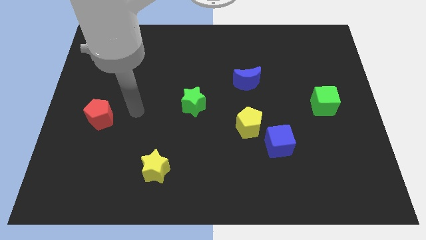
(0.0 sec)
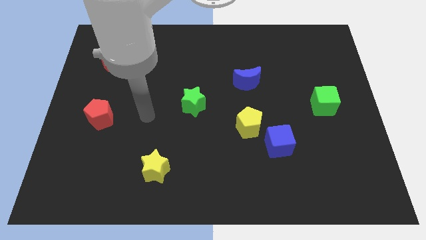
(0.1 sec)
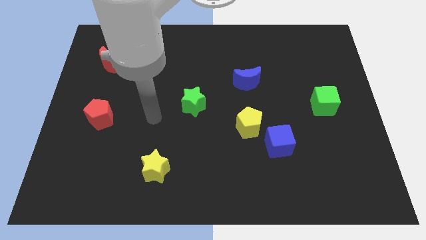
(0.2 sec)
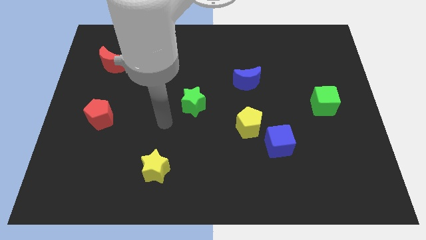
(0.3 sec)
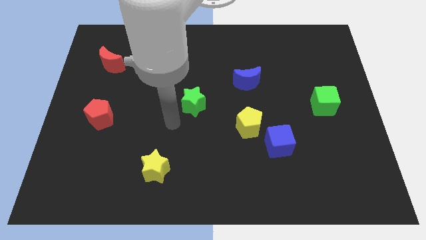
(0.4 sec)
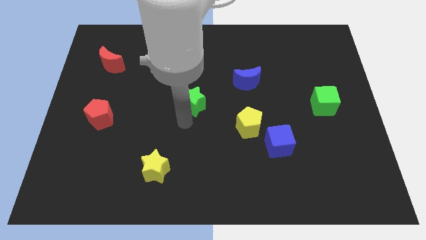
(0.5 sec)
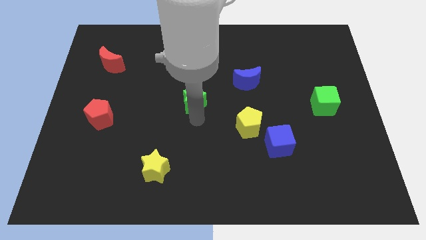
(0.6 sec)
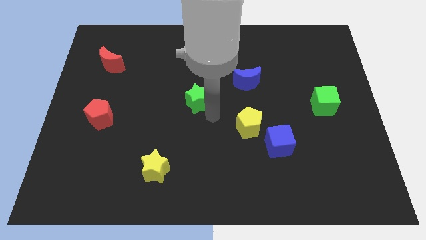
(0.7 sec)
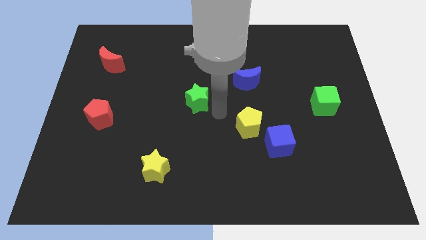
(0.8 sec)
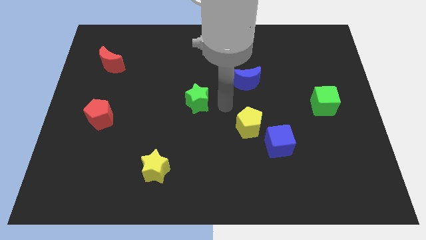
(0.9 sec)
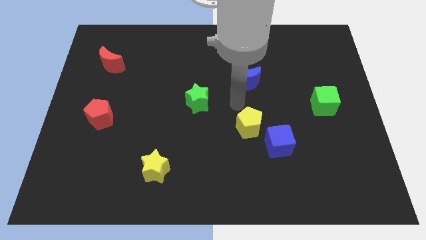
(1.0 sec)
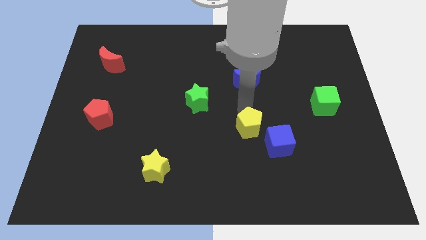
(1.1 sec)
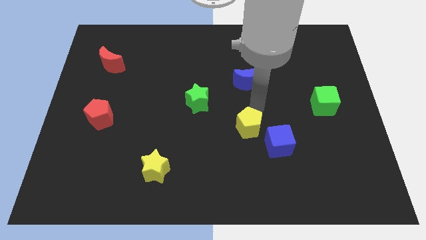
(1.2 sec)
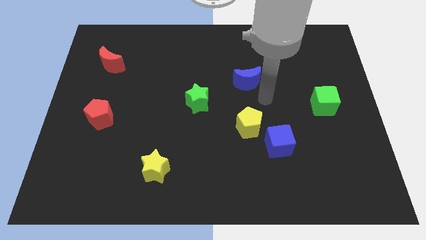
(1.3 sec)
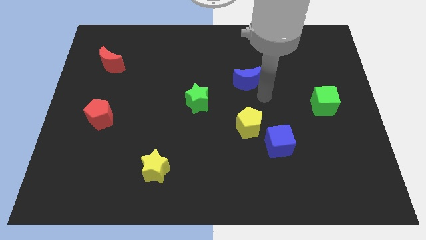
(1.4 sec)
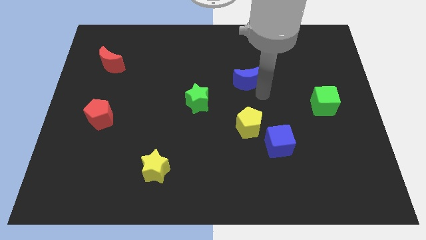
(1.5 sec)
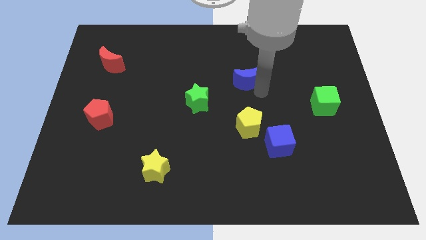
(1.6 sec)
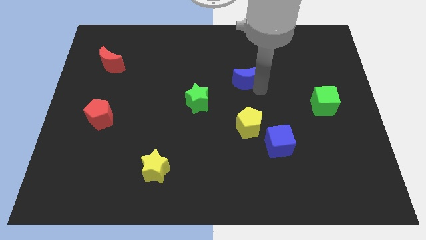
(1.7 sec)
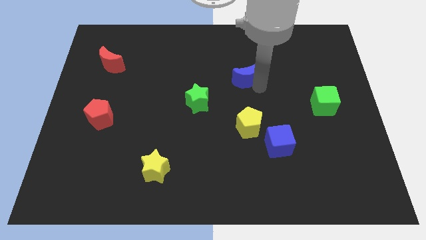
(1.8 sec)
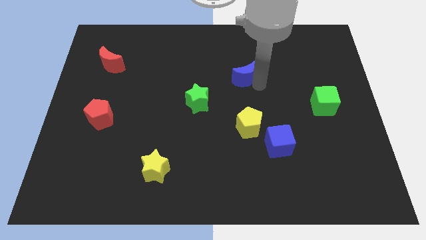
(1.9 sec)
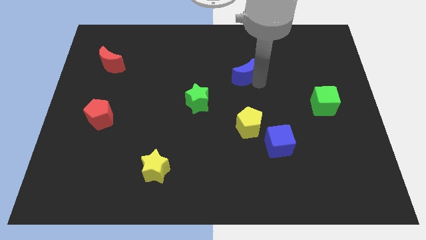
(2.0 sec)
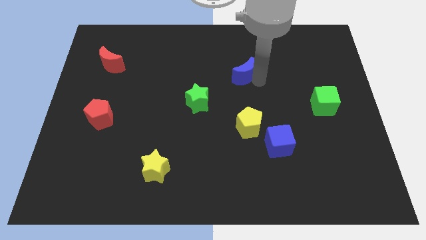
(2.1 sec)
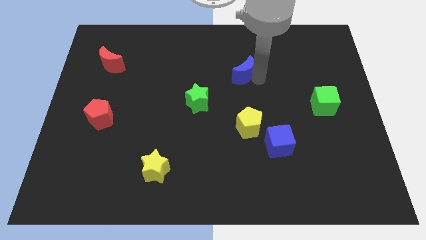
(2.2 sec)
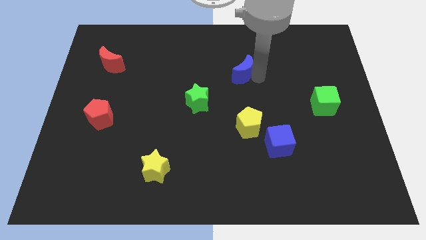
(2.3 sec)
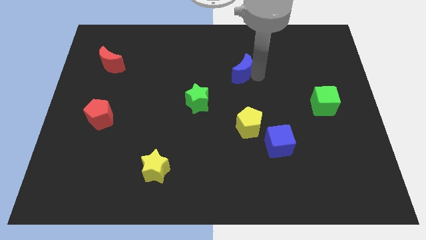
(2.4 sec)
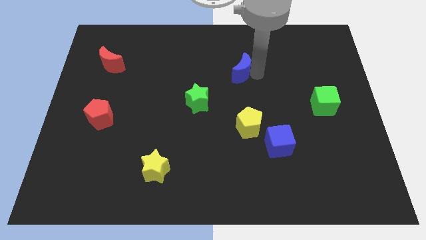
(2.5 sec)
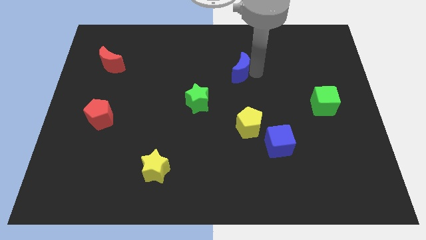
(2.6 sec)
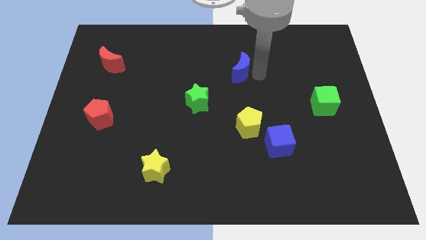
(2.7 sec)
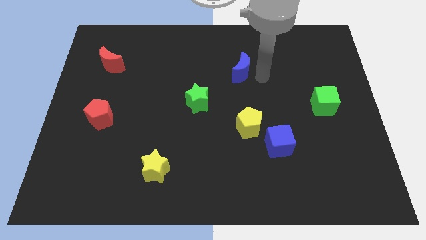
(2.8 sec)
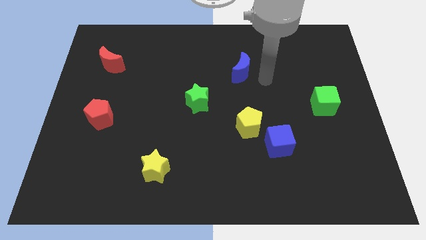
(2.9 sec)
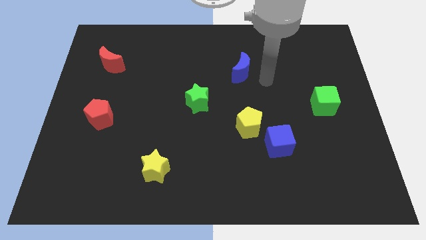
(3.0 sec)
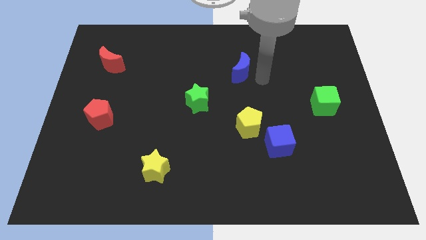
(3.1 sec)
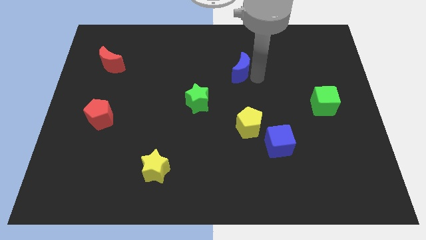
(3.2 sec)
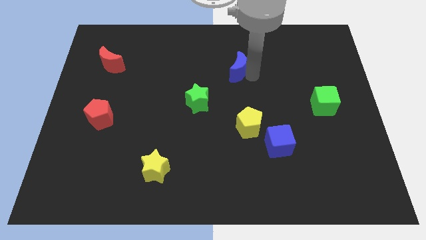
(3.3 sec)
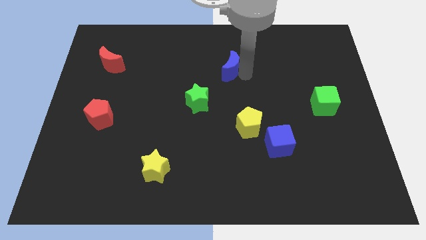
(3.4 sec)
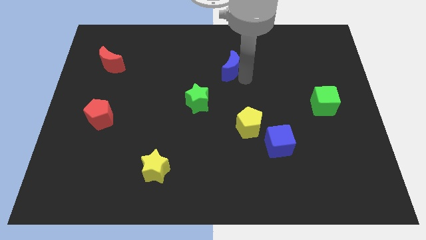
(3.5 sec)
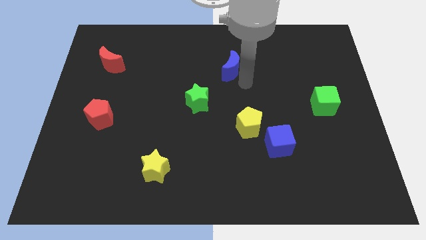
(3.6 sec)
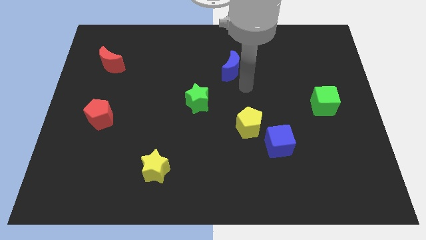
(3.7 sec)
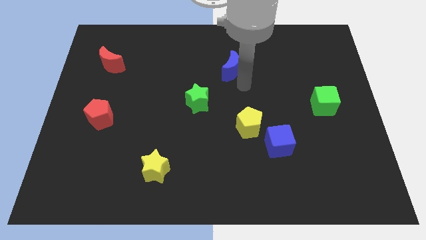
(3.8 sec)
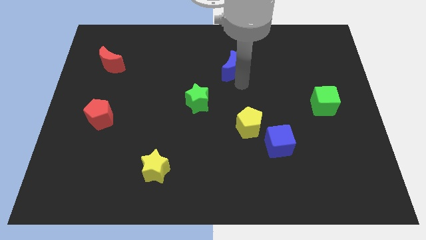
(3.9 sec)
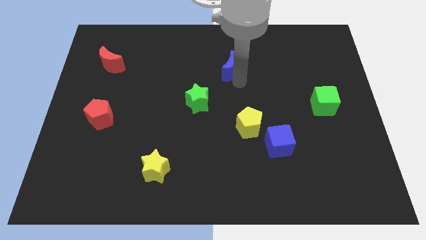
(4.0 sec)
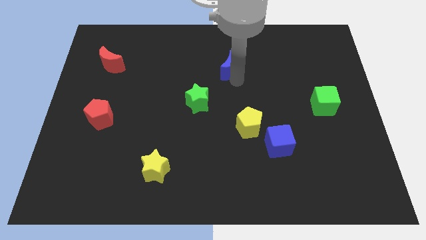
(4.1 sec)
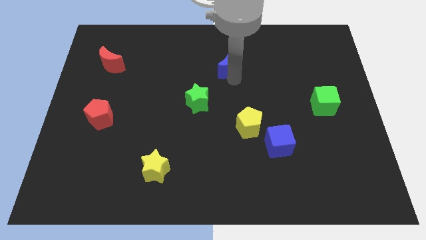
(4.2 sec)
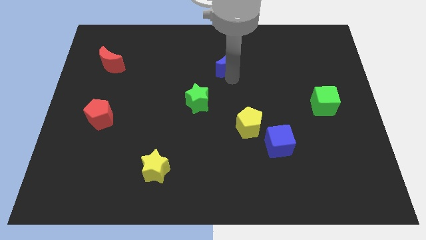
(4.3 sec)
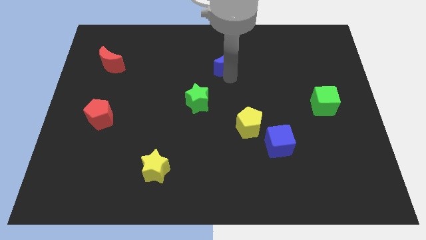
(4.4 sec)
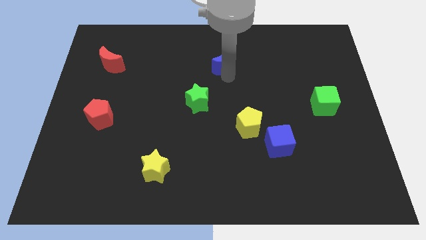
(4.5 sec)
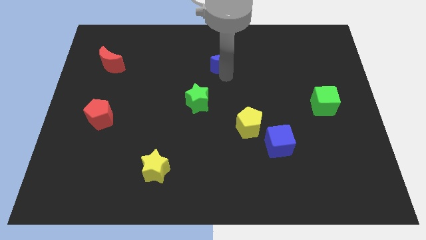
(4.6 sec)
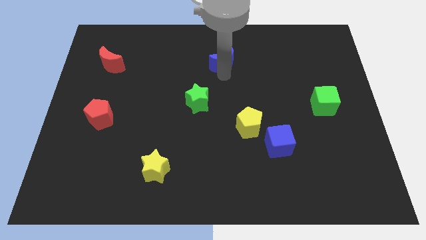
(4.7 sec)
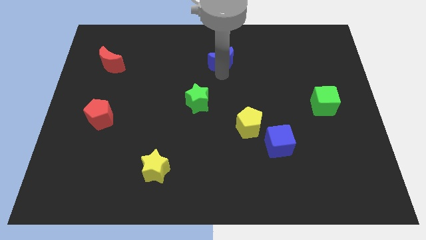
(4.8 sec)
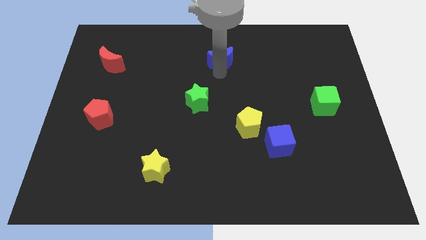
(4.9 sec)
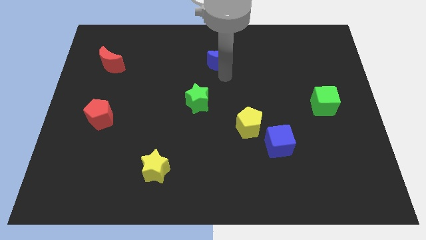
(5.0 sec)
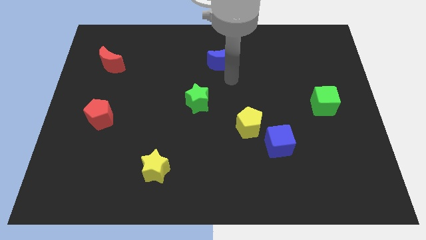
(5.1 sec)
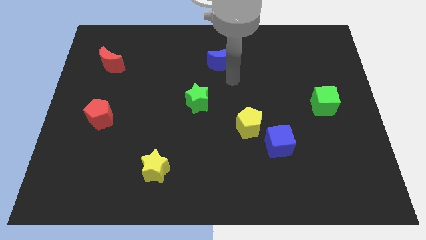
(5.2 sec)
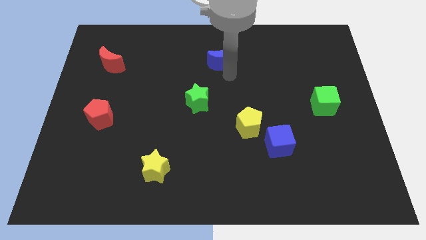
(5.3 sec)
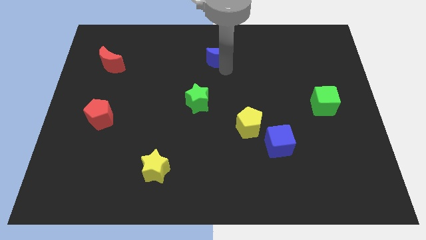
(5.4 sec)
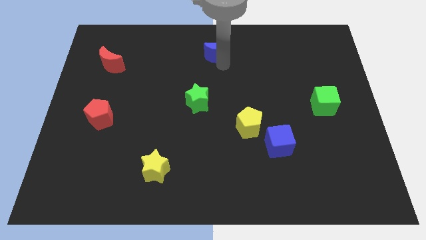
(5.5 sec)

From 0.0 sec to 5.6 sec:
put the blue moon to the top
